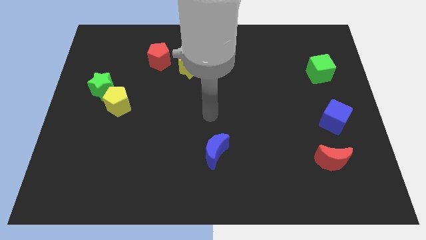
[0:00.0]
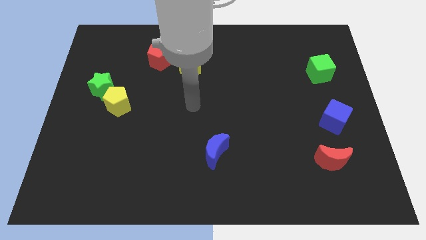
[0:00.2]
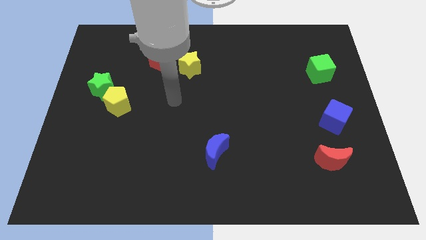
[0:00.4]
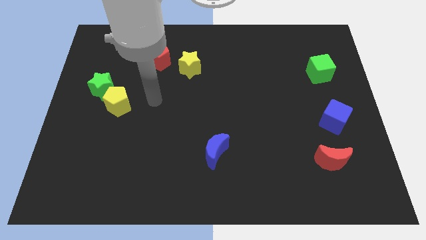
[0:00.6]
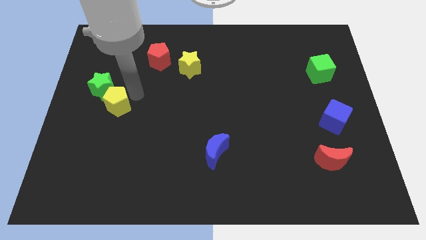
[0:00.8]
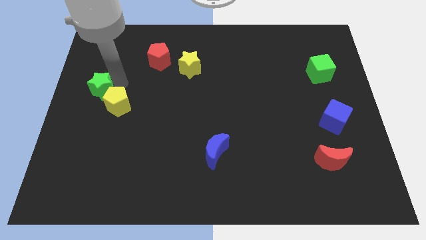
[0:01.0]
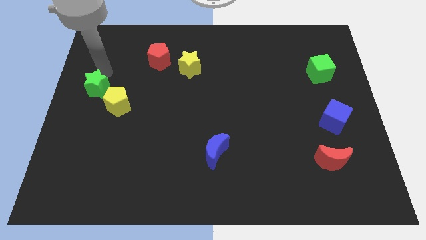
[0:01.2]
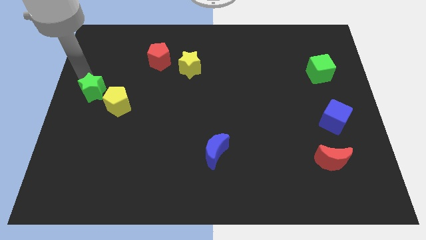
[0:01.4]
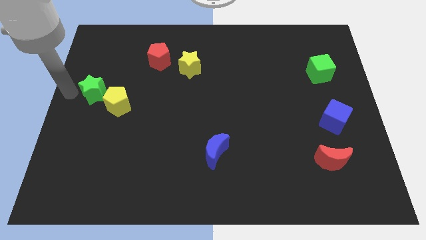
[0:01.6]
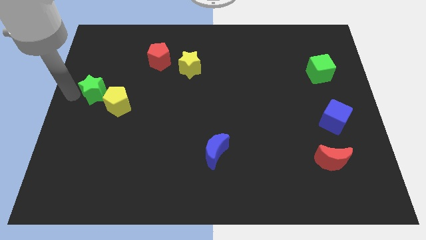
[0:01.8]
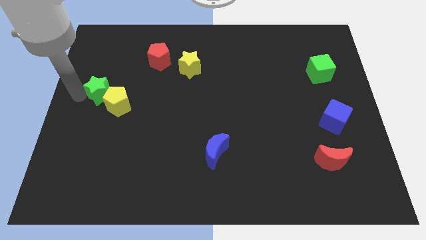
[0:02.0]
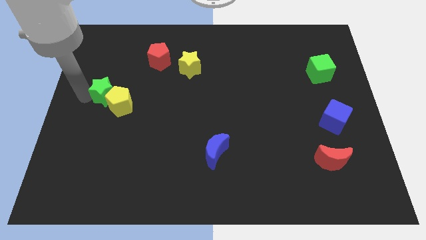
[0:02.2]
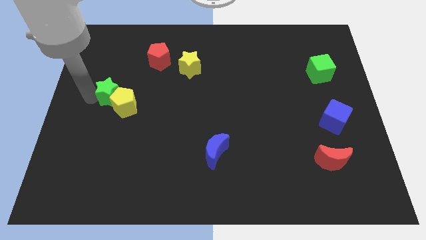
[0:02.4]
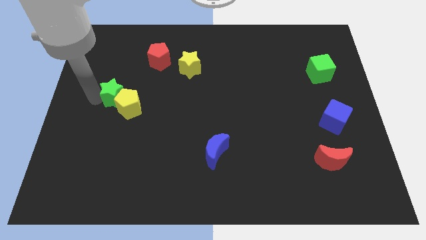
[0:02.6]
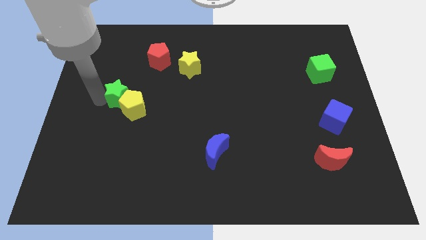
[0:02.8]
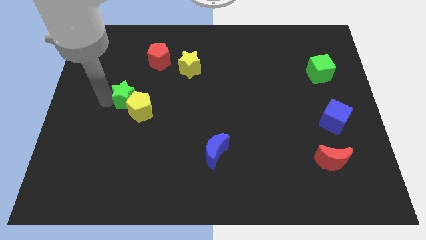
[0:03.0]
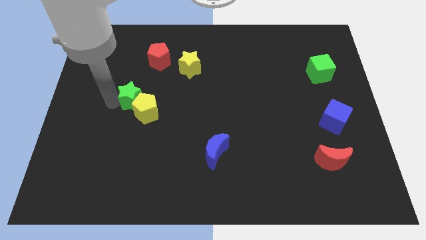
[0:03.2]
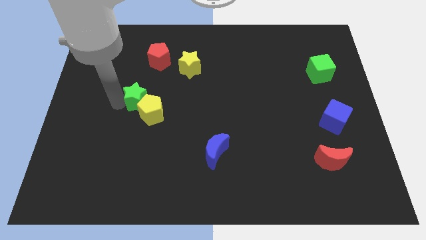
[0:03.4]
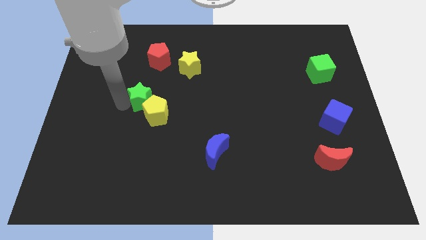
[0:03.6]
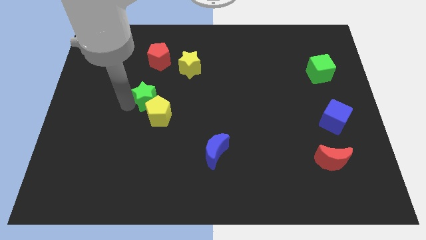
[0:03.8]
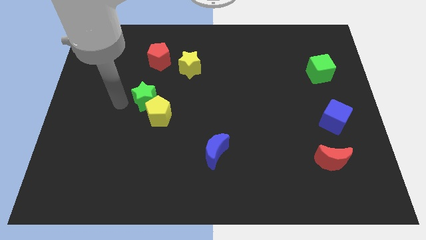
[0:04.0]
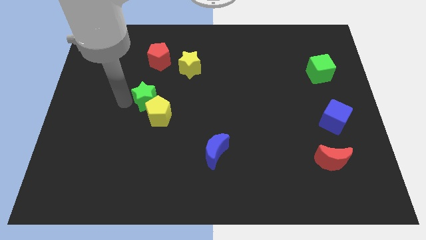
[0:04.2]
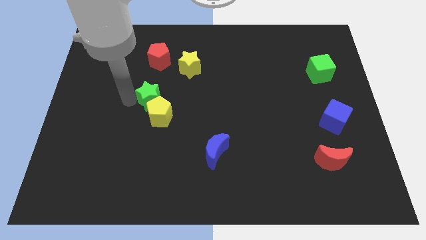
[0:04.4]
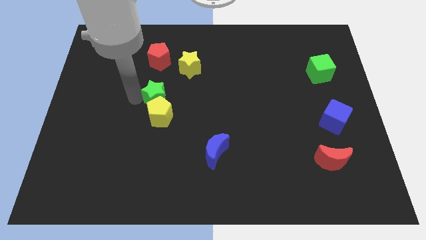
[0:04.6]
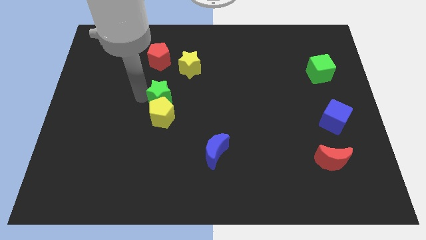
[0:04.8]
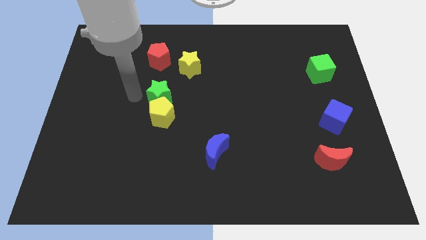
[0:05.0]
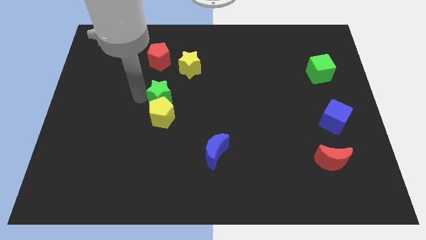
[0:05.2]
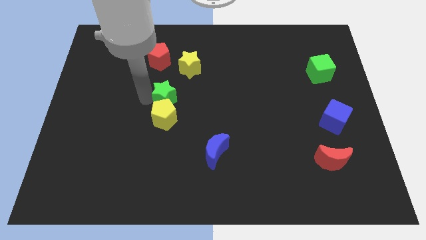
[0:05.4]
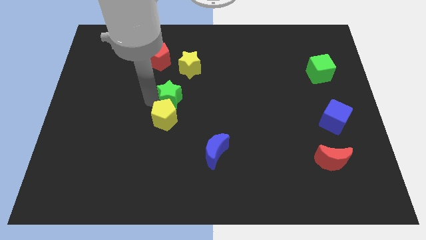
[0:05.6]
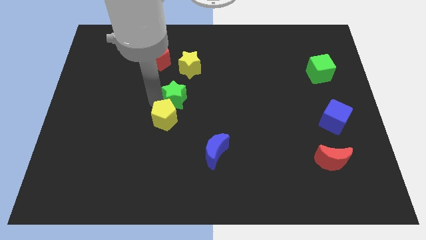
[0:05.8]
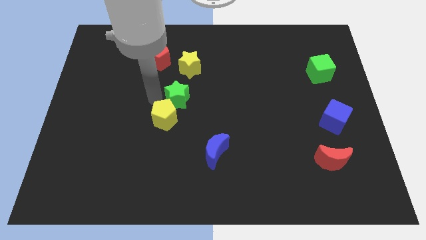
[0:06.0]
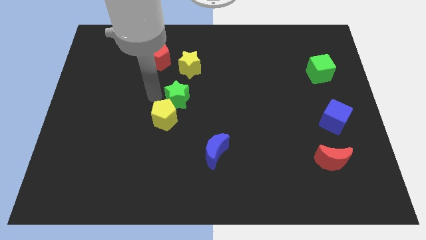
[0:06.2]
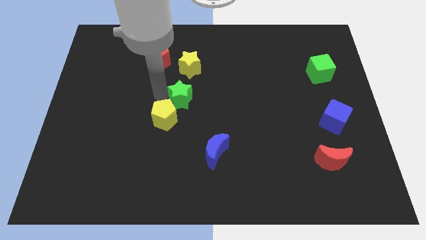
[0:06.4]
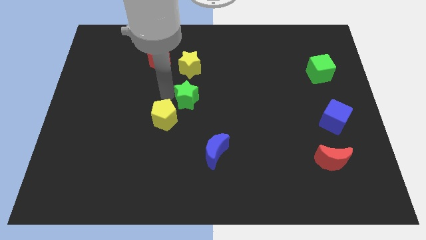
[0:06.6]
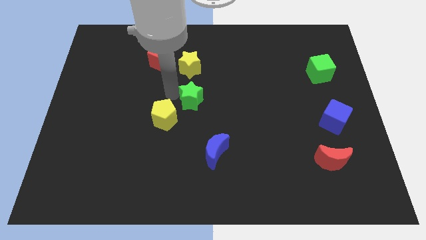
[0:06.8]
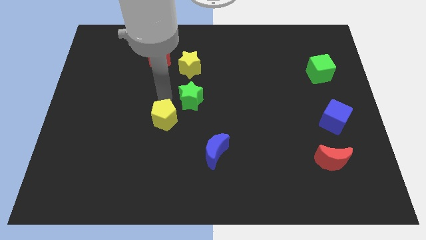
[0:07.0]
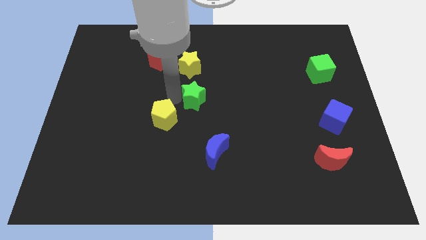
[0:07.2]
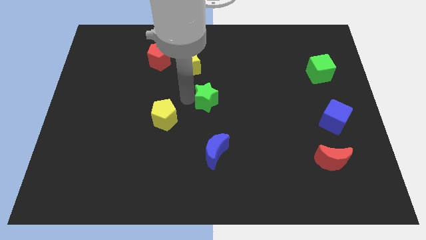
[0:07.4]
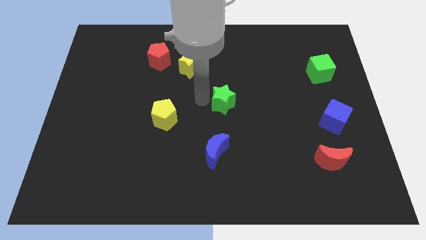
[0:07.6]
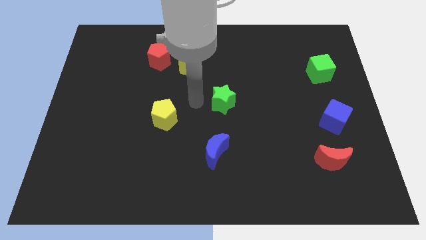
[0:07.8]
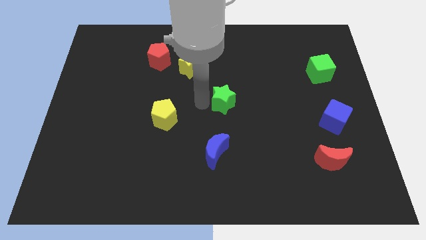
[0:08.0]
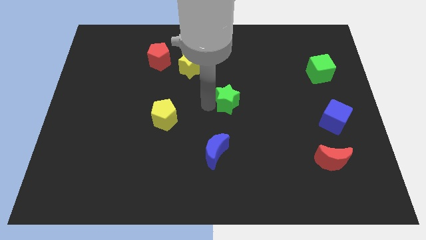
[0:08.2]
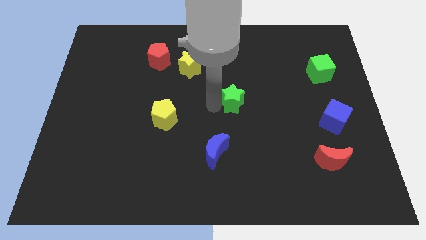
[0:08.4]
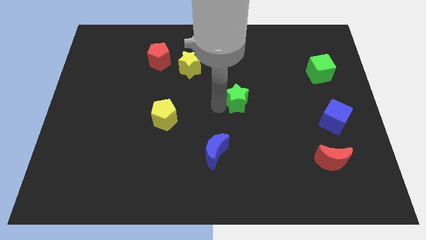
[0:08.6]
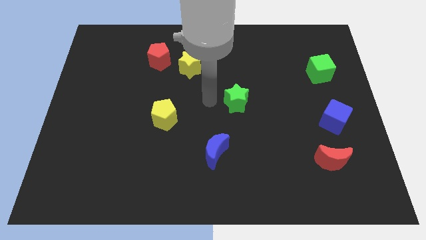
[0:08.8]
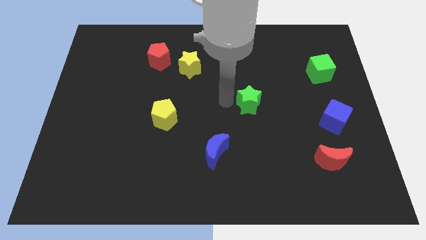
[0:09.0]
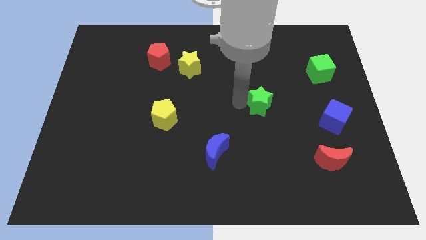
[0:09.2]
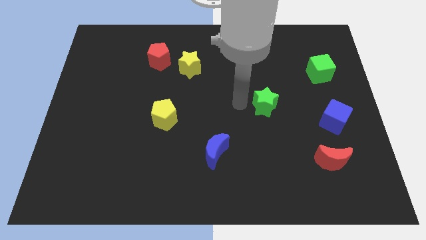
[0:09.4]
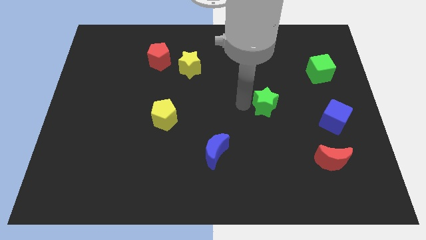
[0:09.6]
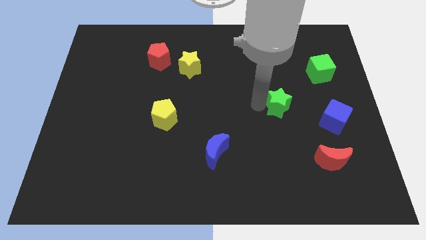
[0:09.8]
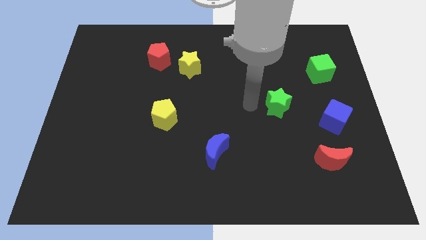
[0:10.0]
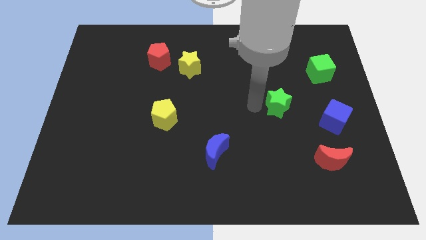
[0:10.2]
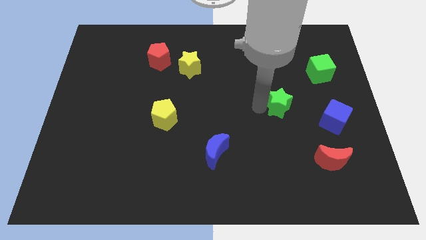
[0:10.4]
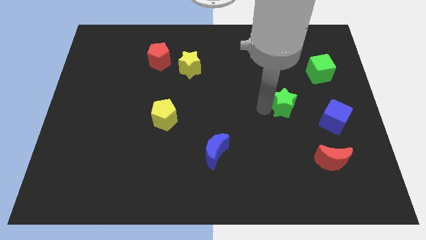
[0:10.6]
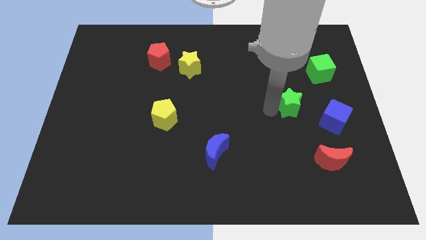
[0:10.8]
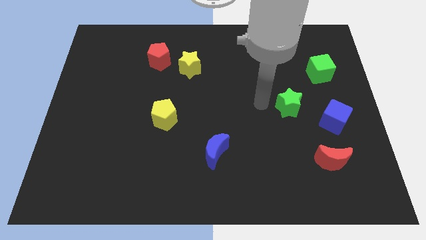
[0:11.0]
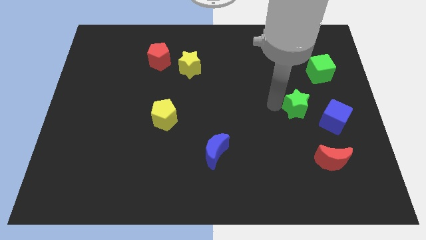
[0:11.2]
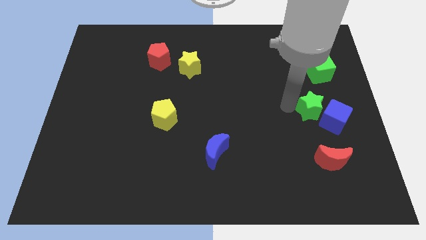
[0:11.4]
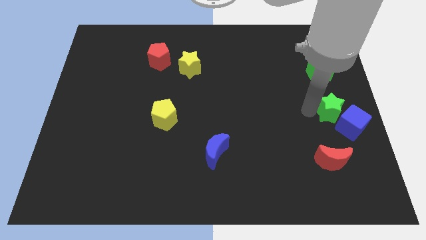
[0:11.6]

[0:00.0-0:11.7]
push the green star to the right side

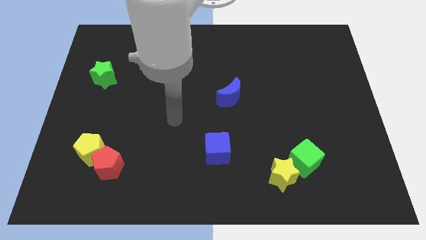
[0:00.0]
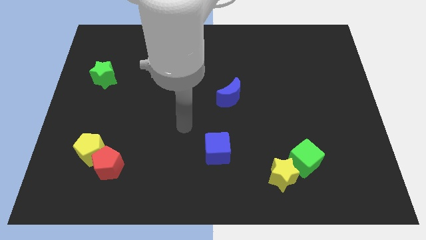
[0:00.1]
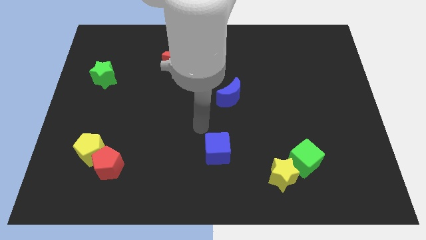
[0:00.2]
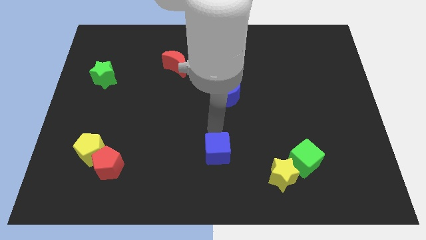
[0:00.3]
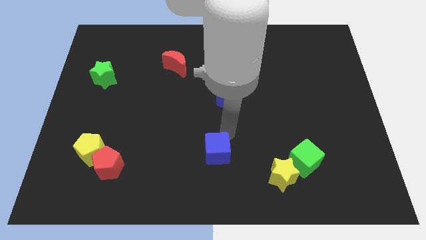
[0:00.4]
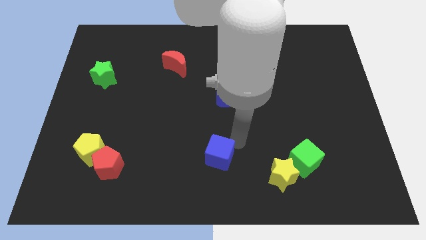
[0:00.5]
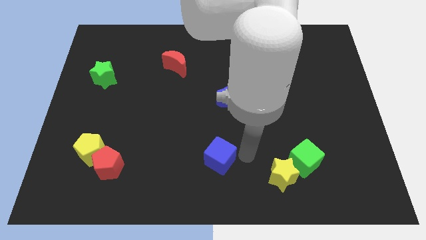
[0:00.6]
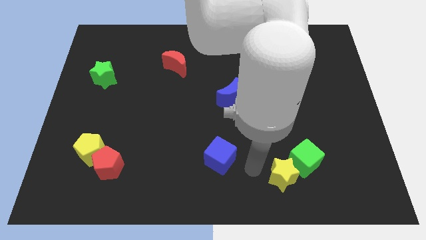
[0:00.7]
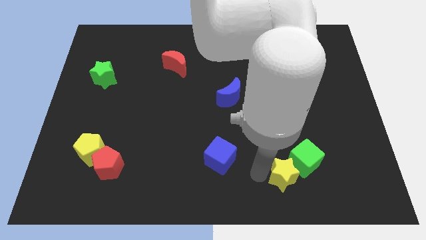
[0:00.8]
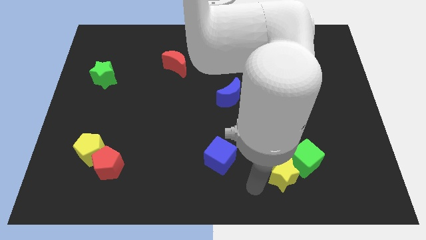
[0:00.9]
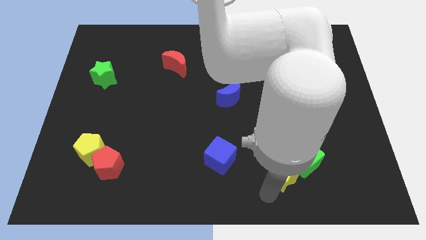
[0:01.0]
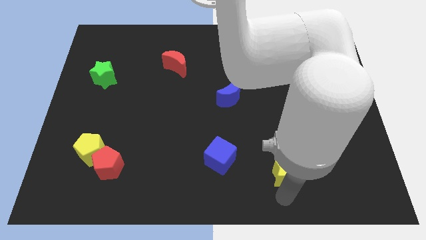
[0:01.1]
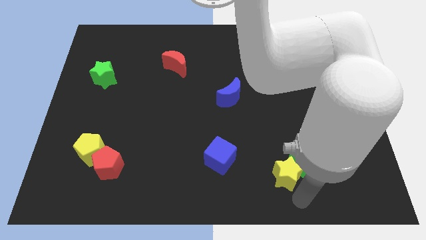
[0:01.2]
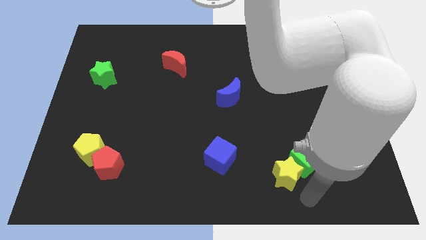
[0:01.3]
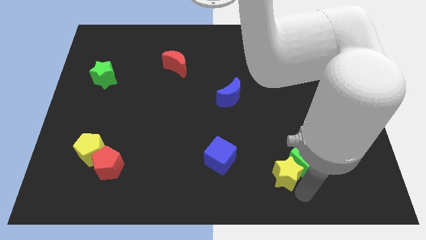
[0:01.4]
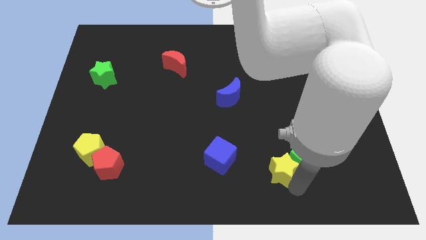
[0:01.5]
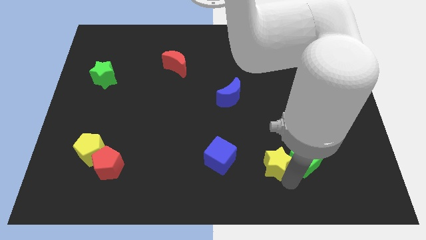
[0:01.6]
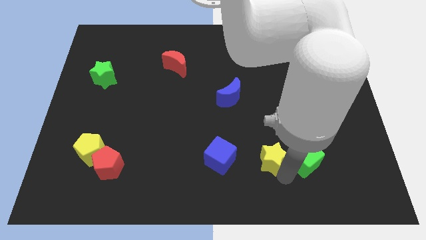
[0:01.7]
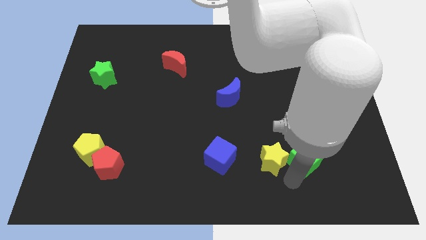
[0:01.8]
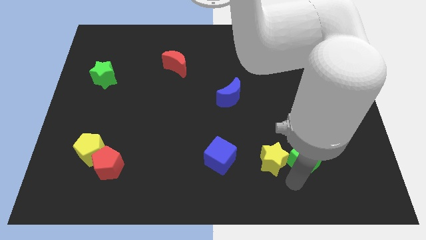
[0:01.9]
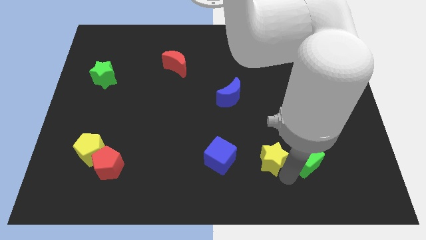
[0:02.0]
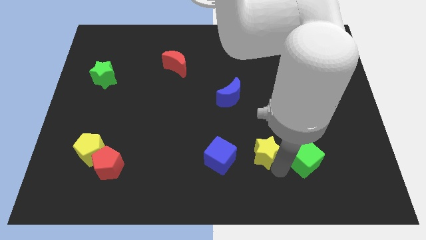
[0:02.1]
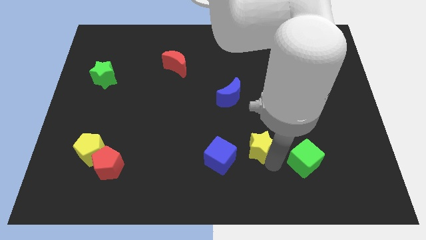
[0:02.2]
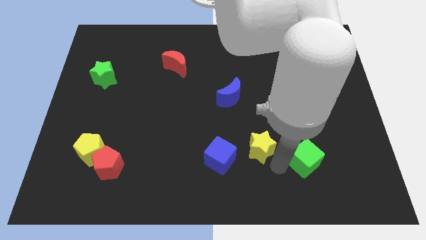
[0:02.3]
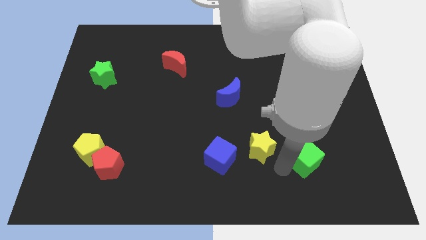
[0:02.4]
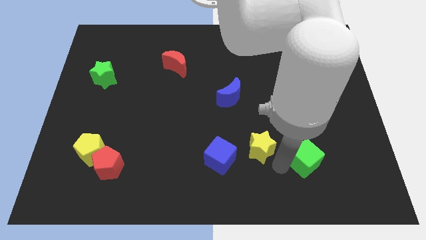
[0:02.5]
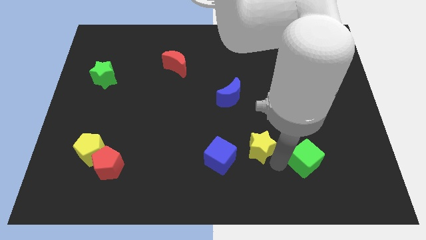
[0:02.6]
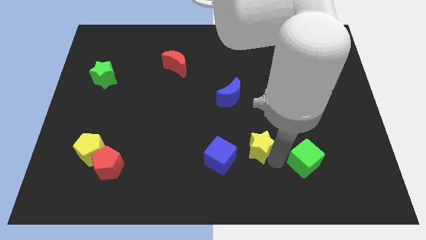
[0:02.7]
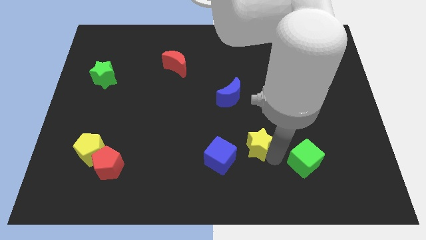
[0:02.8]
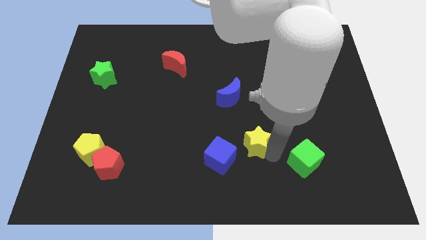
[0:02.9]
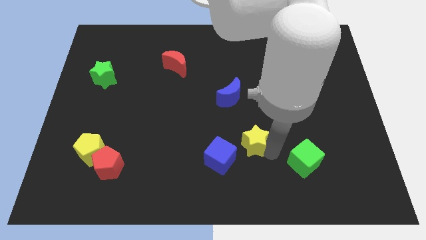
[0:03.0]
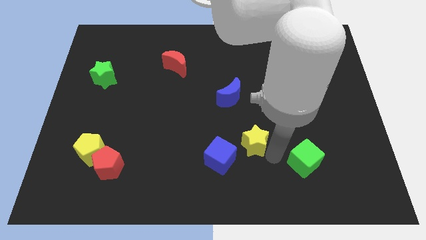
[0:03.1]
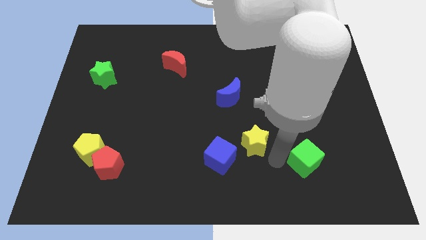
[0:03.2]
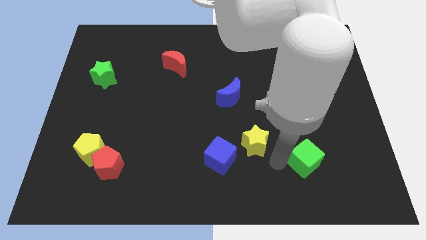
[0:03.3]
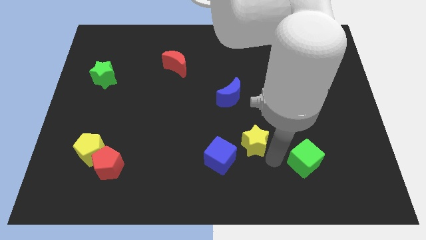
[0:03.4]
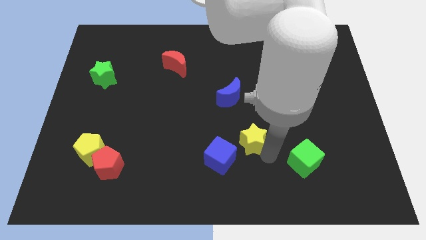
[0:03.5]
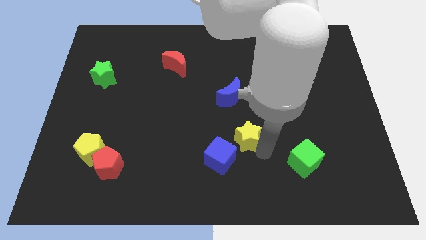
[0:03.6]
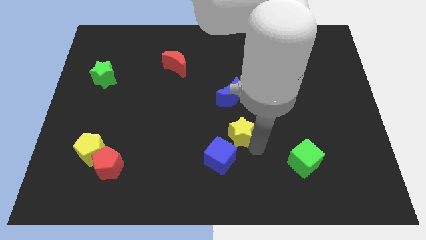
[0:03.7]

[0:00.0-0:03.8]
move the yellow star to the center of the board
